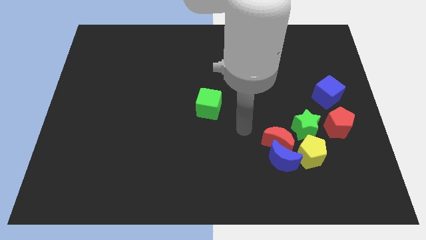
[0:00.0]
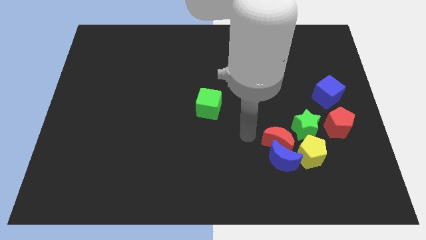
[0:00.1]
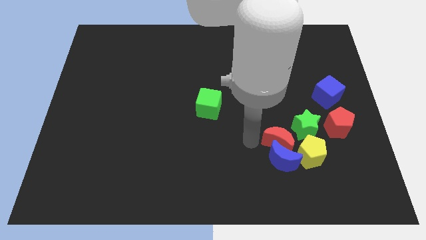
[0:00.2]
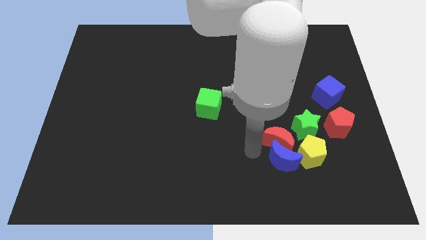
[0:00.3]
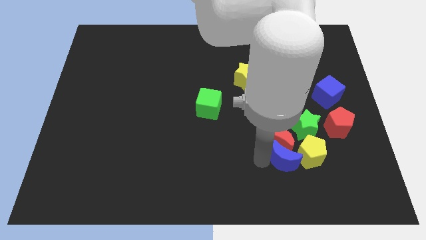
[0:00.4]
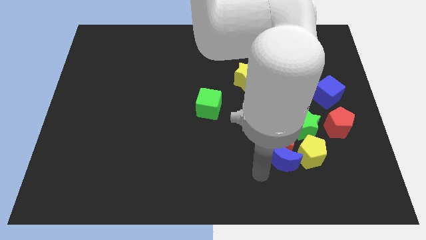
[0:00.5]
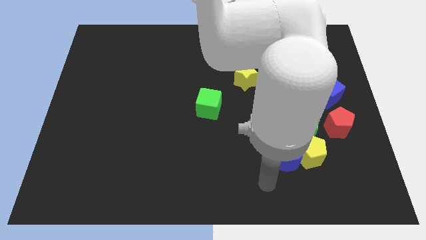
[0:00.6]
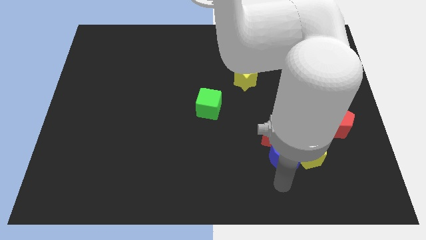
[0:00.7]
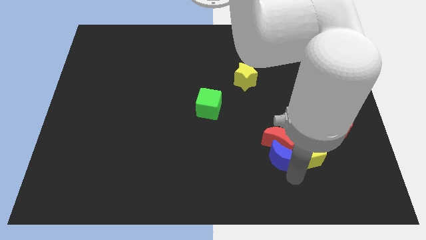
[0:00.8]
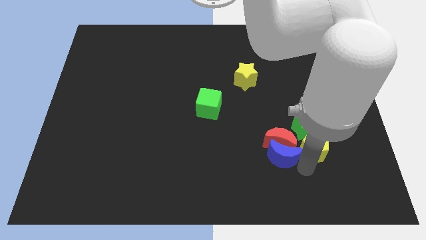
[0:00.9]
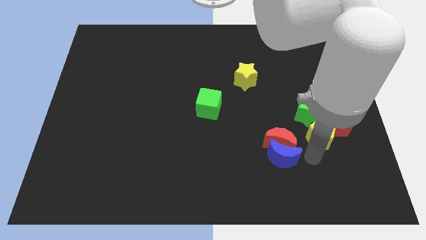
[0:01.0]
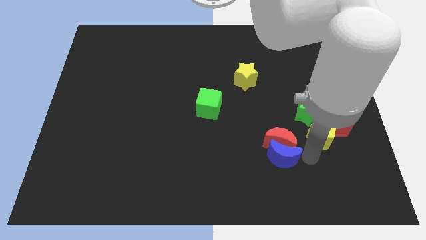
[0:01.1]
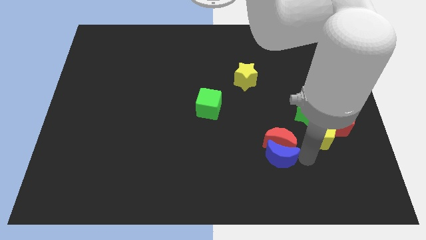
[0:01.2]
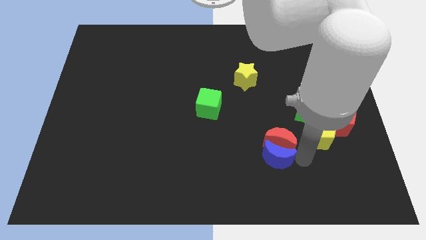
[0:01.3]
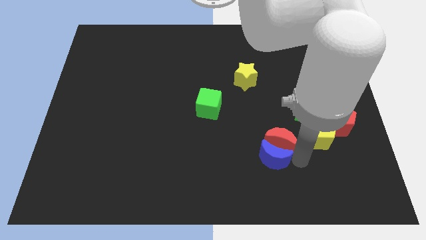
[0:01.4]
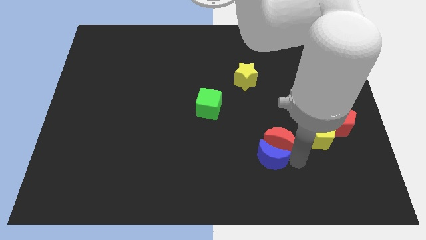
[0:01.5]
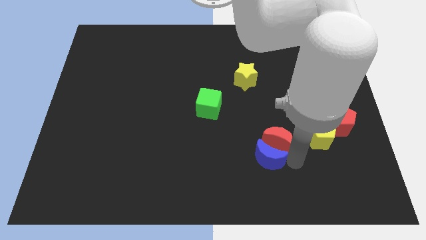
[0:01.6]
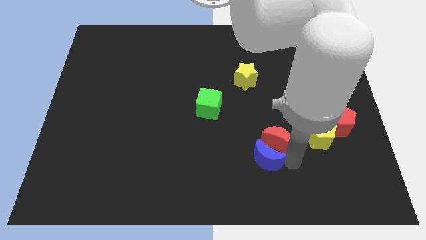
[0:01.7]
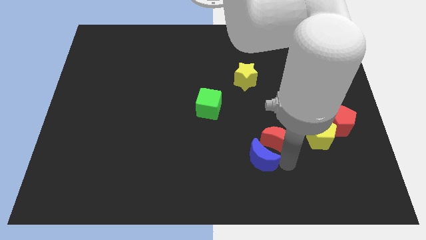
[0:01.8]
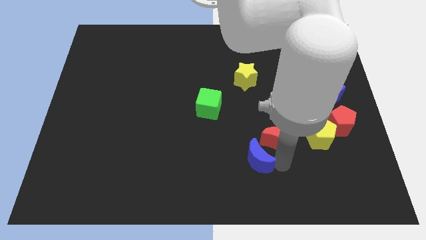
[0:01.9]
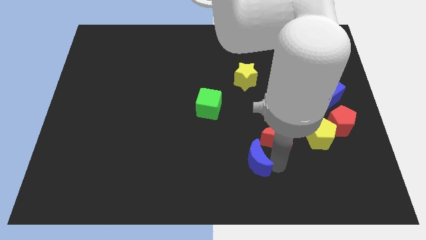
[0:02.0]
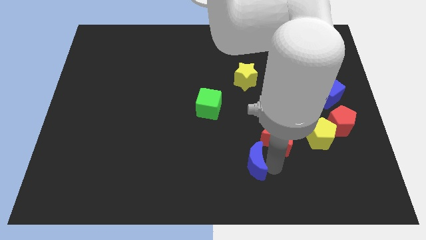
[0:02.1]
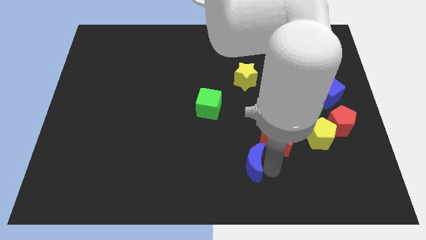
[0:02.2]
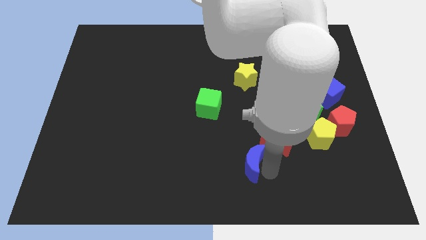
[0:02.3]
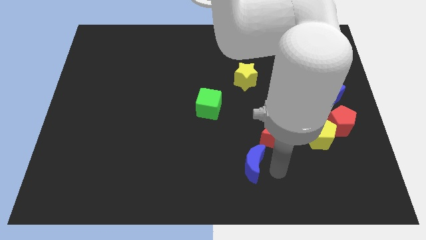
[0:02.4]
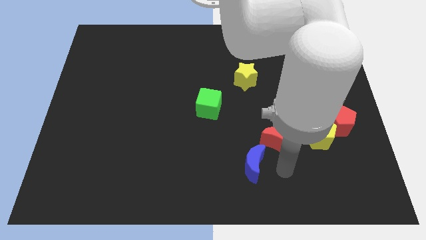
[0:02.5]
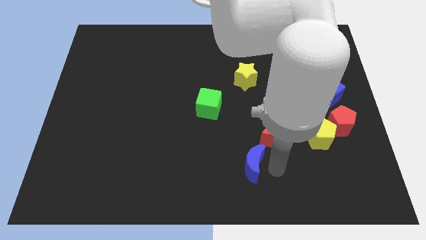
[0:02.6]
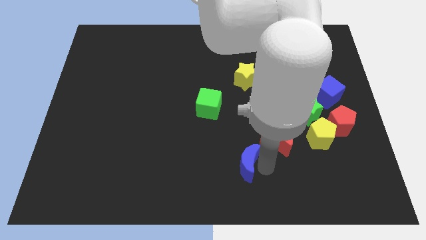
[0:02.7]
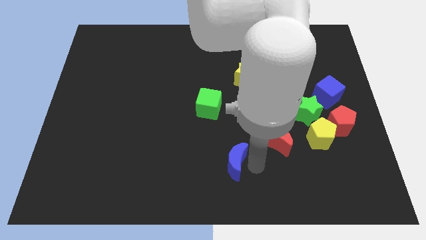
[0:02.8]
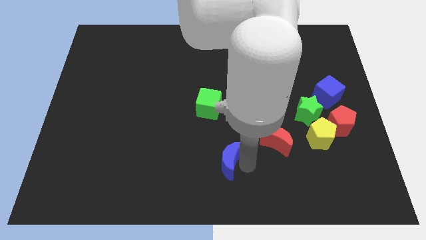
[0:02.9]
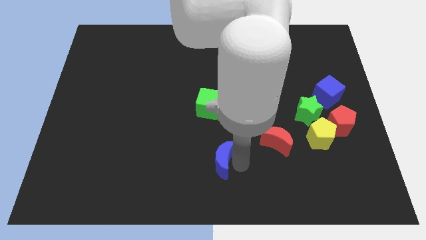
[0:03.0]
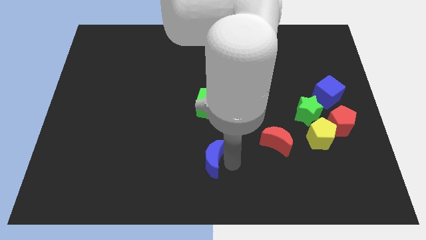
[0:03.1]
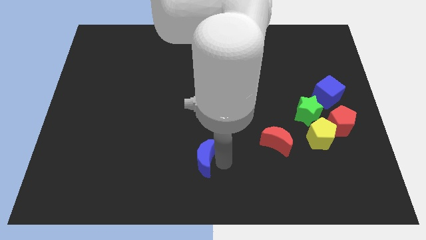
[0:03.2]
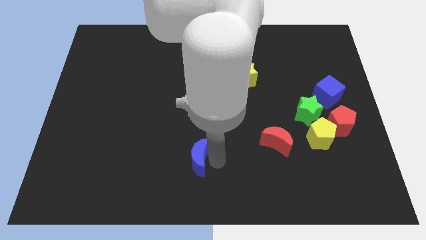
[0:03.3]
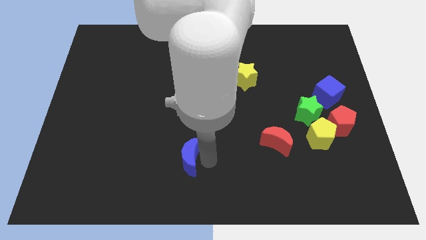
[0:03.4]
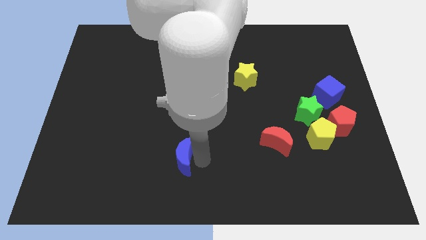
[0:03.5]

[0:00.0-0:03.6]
move the blue moon left

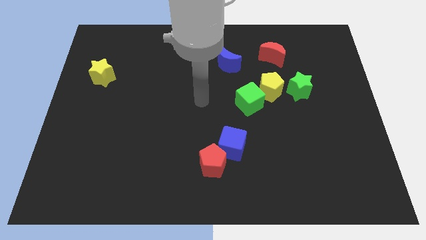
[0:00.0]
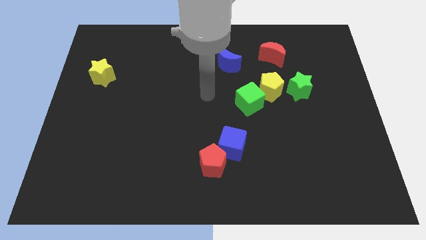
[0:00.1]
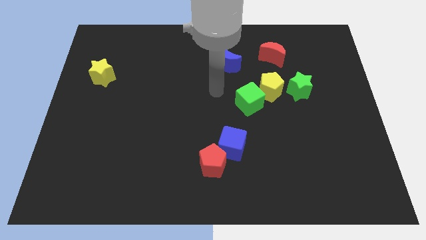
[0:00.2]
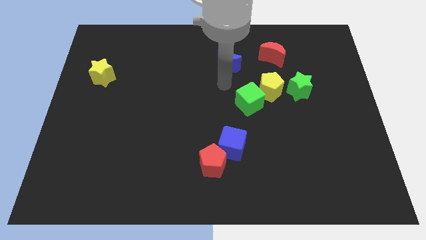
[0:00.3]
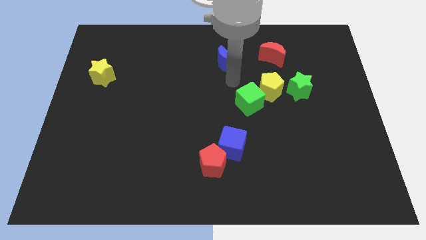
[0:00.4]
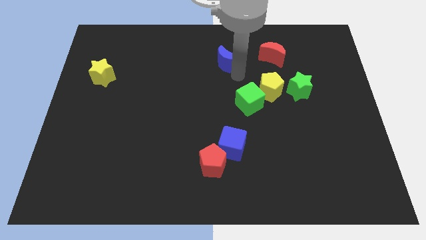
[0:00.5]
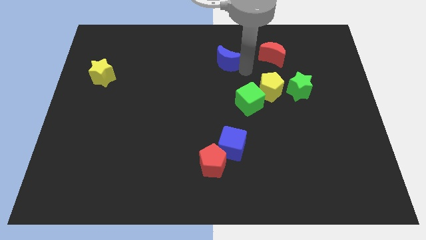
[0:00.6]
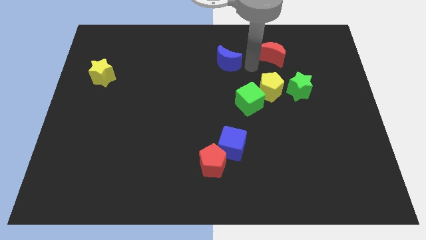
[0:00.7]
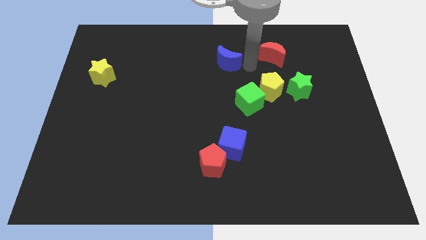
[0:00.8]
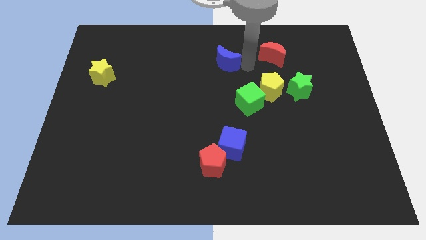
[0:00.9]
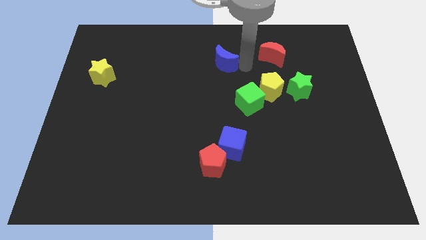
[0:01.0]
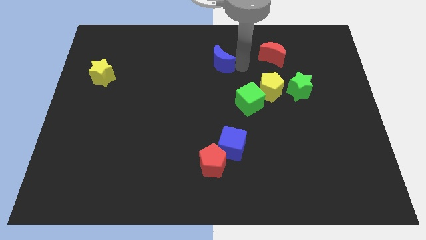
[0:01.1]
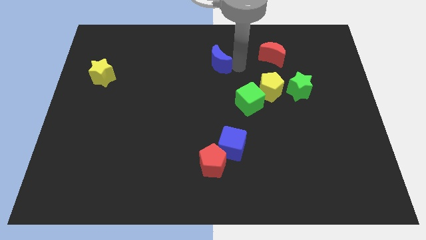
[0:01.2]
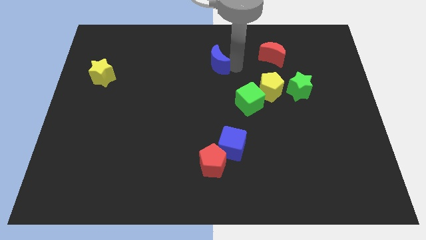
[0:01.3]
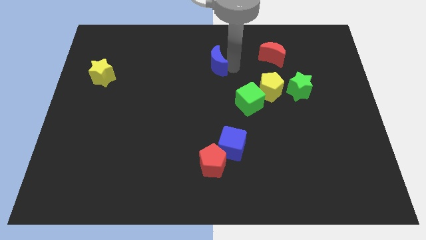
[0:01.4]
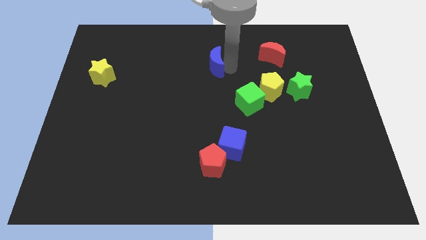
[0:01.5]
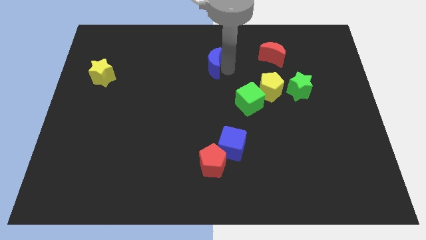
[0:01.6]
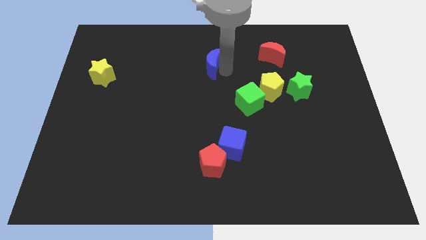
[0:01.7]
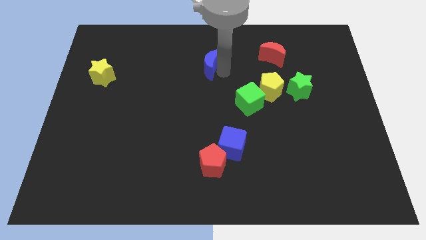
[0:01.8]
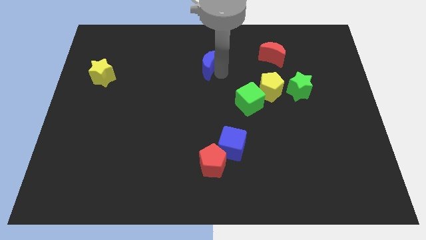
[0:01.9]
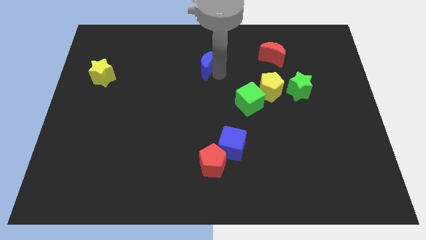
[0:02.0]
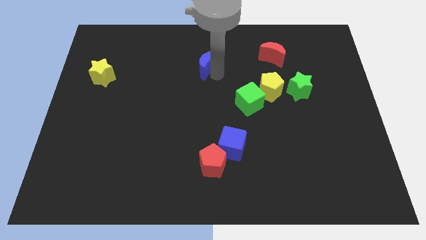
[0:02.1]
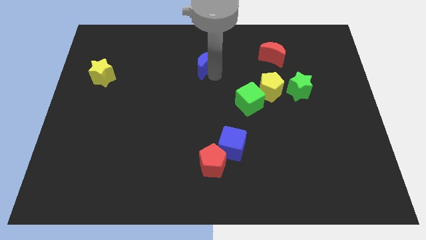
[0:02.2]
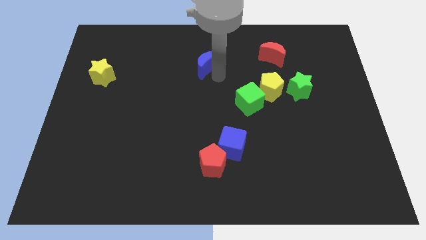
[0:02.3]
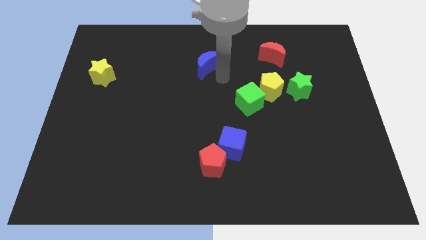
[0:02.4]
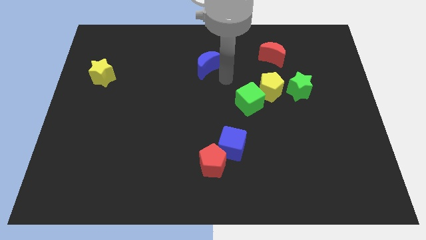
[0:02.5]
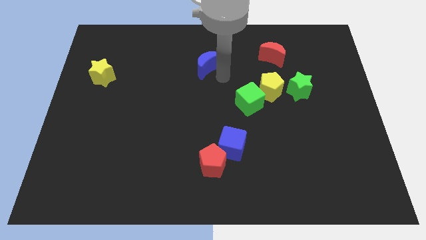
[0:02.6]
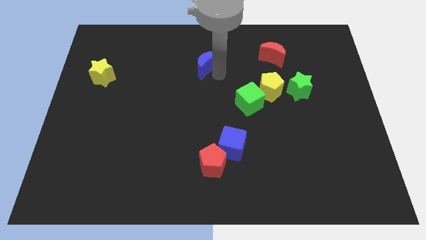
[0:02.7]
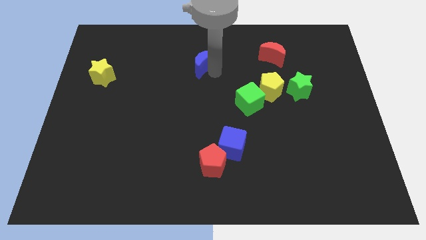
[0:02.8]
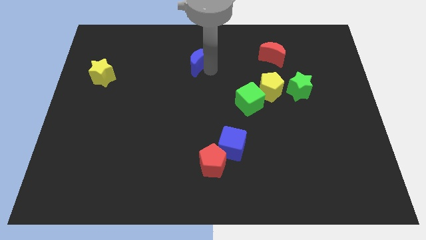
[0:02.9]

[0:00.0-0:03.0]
slide the blue moon a little to the left

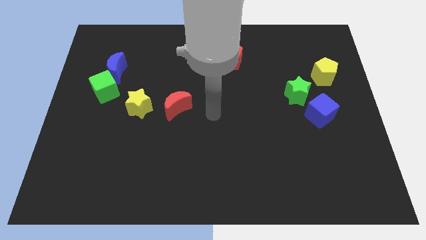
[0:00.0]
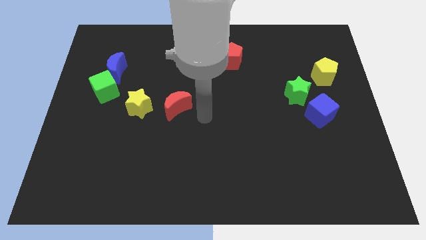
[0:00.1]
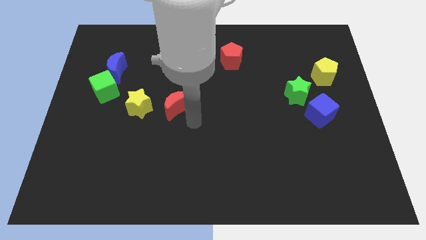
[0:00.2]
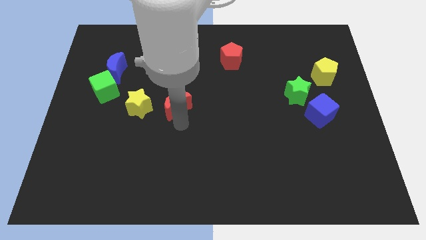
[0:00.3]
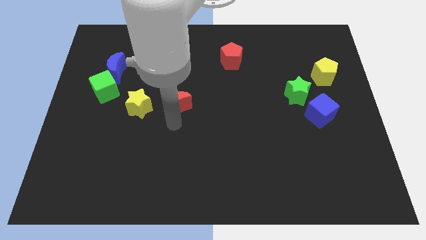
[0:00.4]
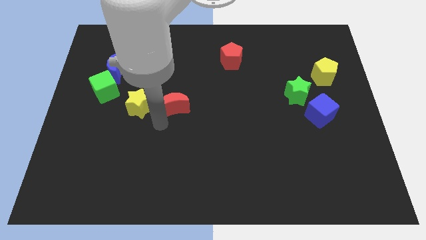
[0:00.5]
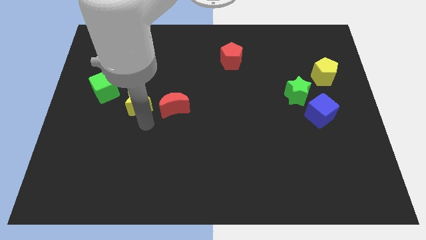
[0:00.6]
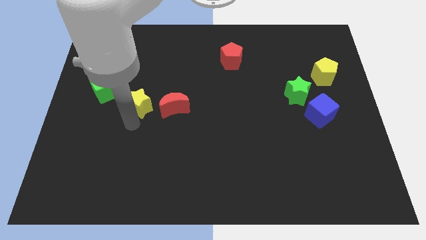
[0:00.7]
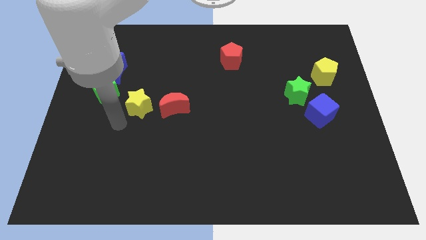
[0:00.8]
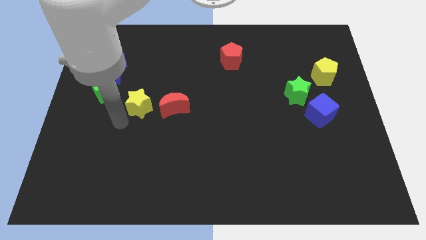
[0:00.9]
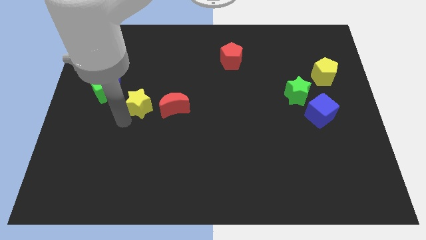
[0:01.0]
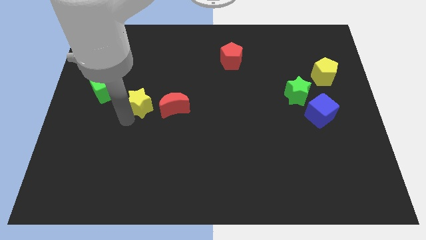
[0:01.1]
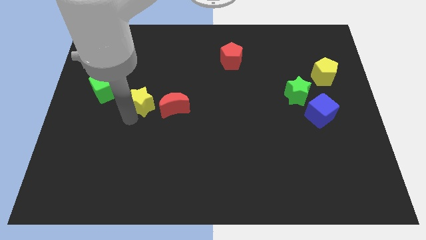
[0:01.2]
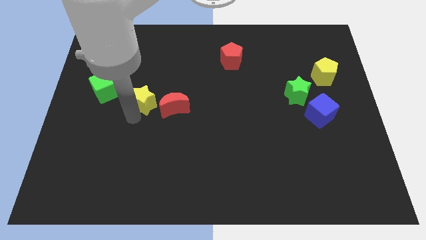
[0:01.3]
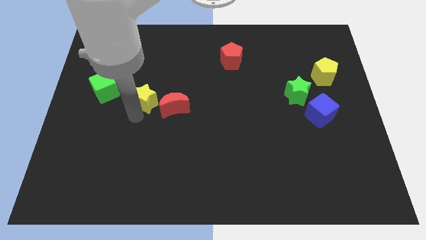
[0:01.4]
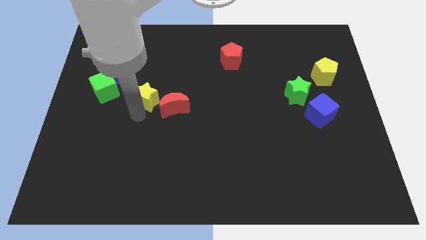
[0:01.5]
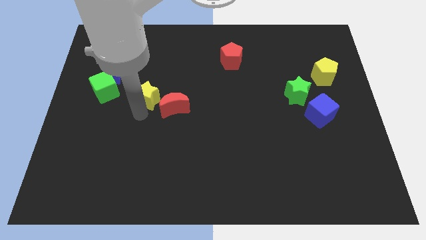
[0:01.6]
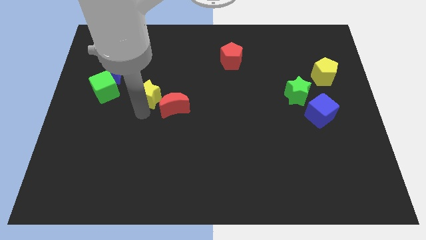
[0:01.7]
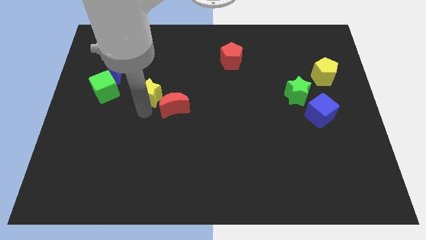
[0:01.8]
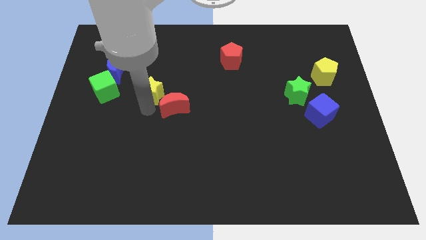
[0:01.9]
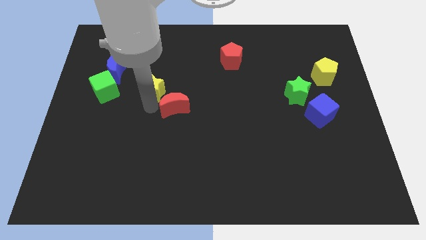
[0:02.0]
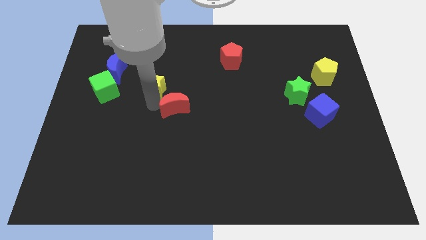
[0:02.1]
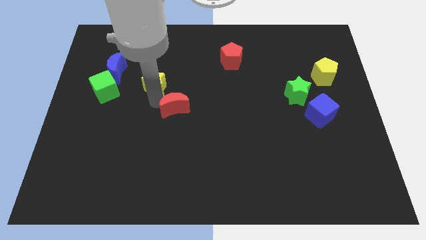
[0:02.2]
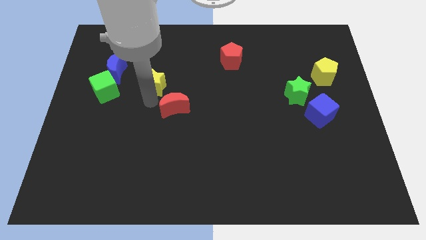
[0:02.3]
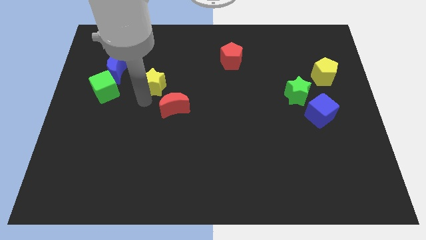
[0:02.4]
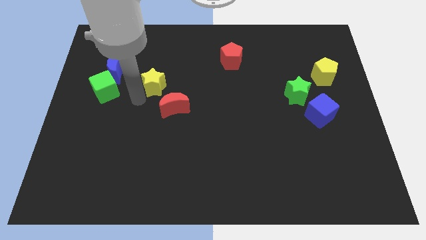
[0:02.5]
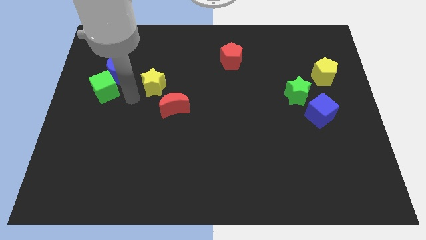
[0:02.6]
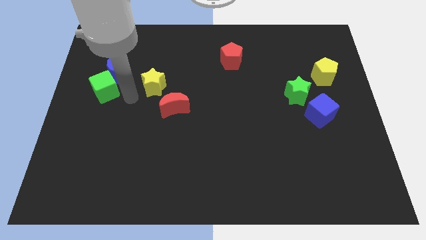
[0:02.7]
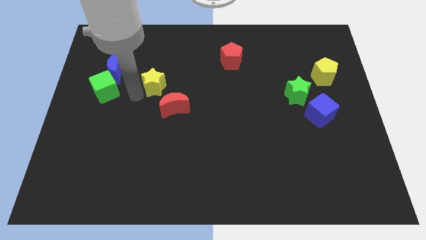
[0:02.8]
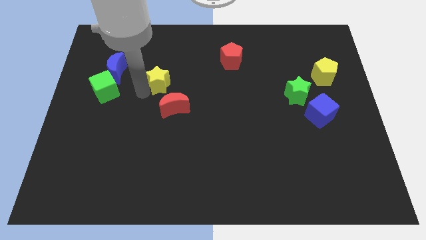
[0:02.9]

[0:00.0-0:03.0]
slide the yellow star upwards and right diagonally slightly
